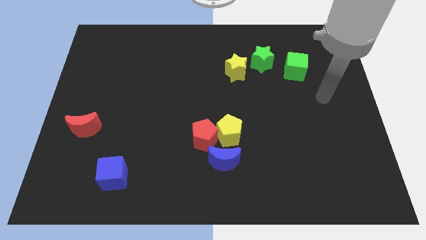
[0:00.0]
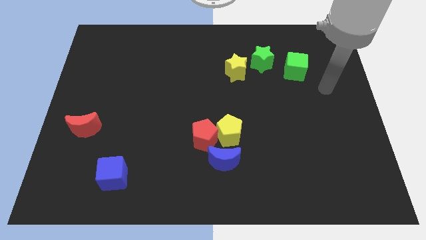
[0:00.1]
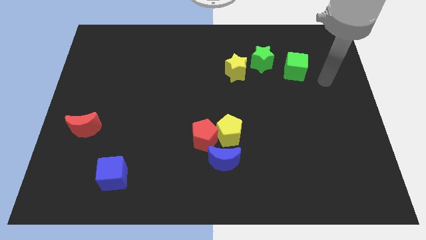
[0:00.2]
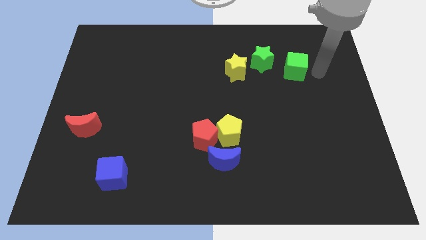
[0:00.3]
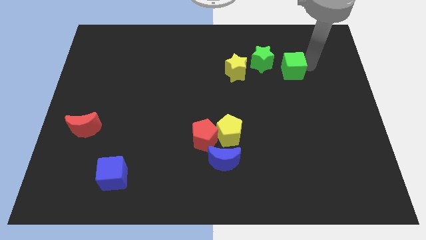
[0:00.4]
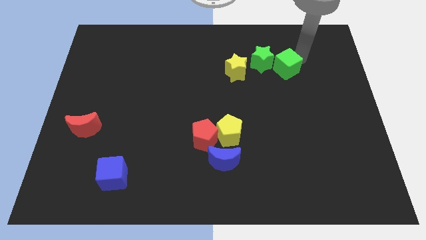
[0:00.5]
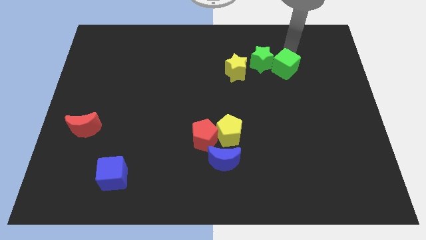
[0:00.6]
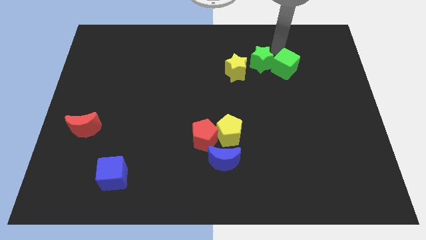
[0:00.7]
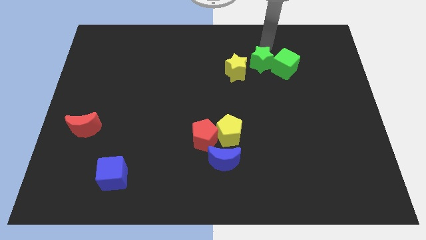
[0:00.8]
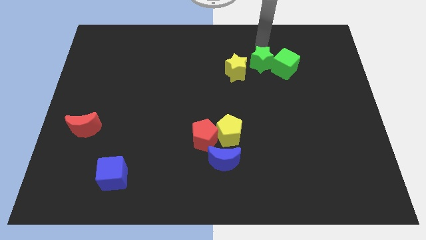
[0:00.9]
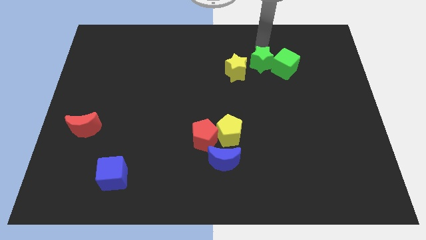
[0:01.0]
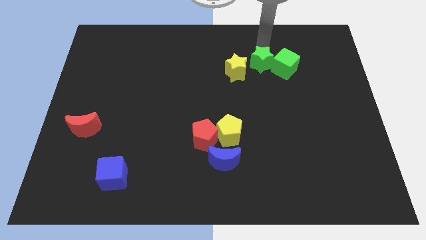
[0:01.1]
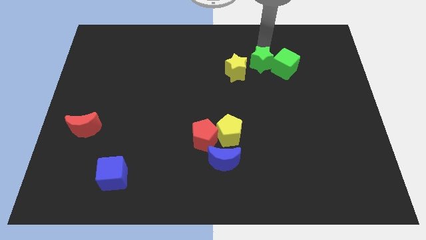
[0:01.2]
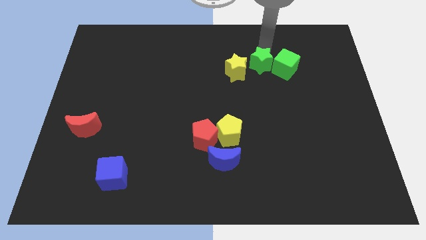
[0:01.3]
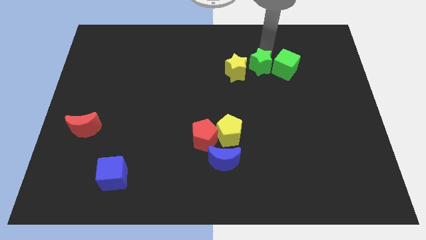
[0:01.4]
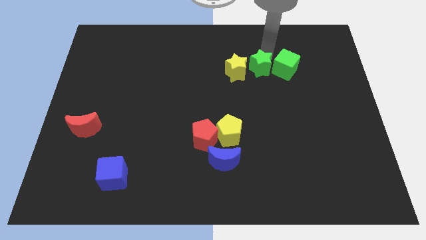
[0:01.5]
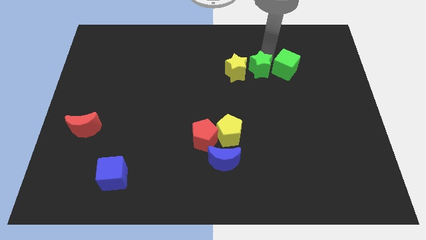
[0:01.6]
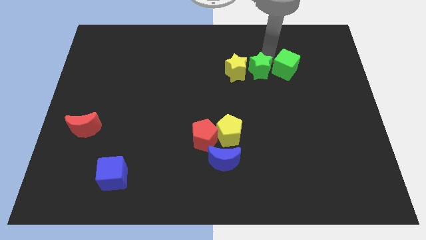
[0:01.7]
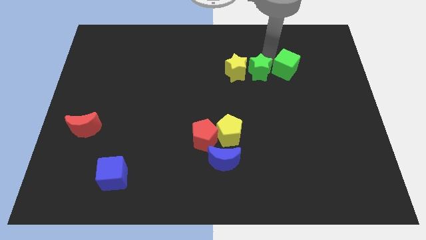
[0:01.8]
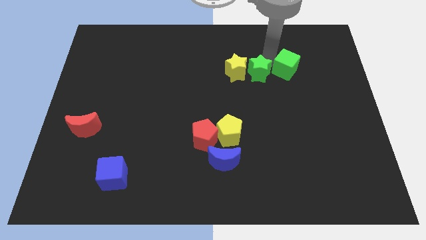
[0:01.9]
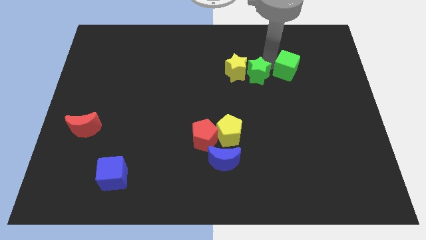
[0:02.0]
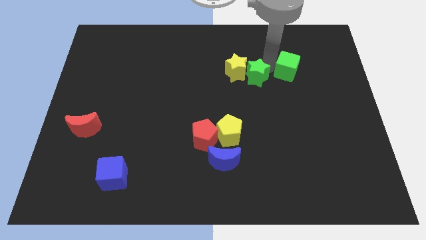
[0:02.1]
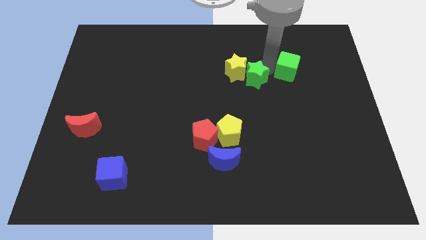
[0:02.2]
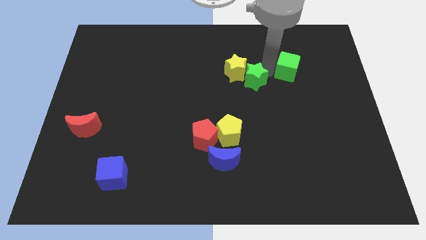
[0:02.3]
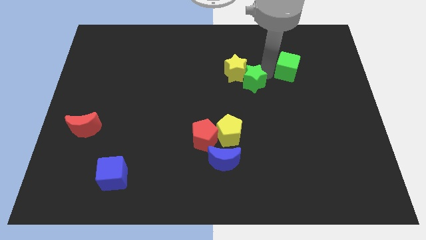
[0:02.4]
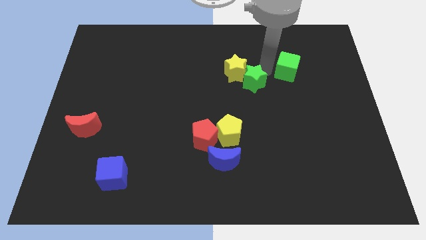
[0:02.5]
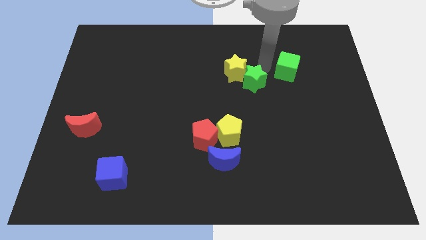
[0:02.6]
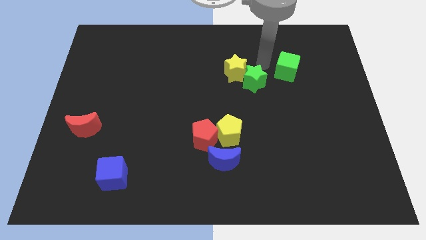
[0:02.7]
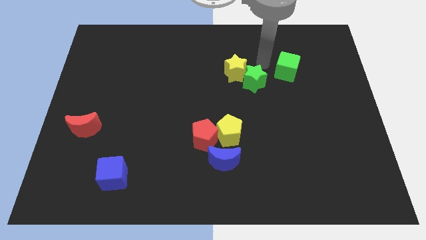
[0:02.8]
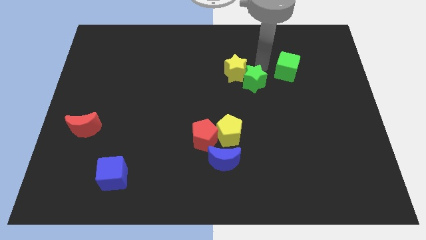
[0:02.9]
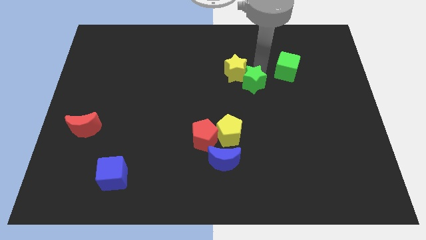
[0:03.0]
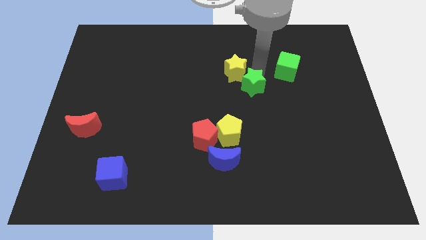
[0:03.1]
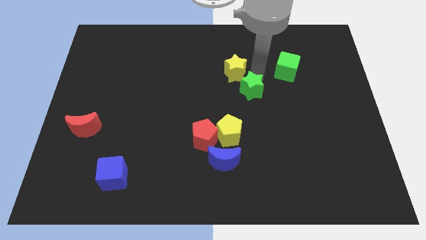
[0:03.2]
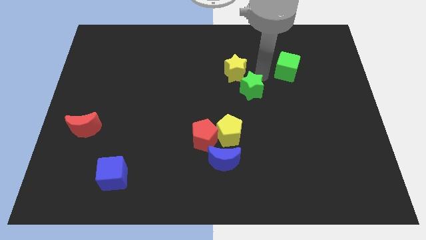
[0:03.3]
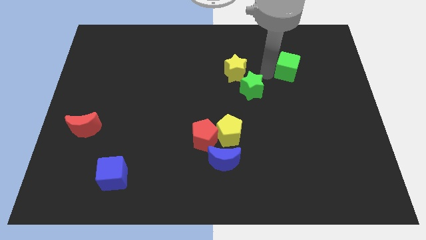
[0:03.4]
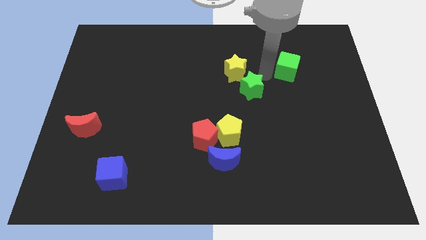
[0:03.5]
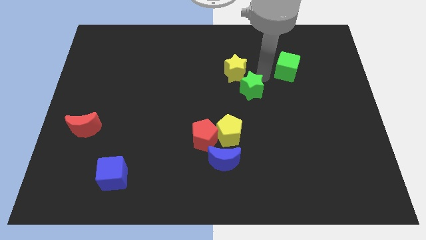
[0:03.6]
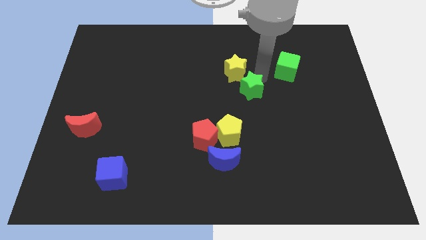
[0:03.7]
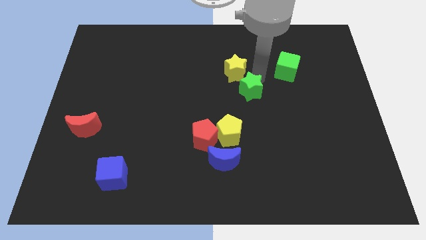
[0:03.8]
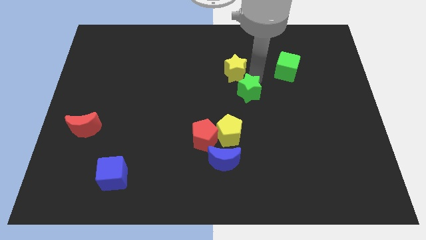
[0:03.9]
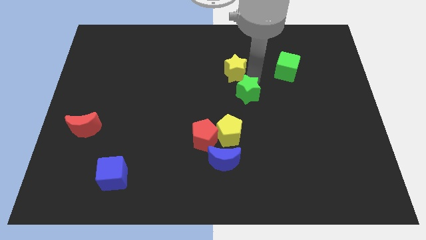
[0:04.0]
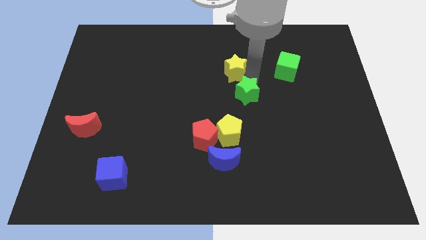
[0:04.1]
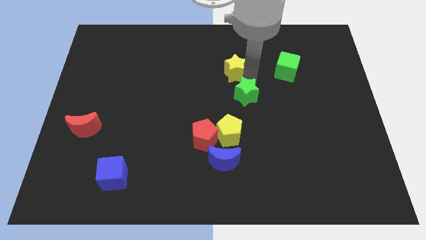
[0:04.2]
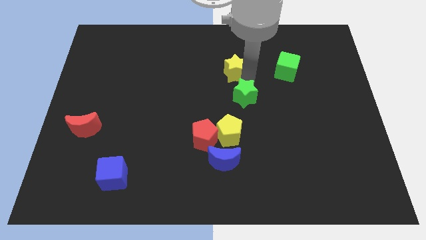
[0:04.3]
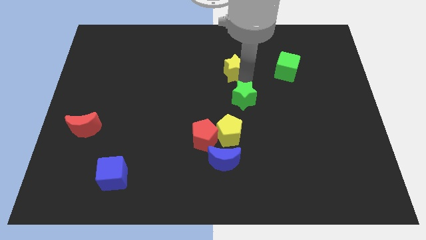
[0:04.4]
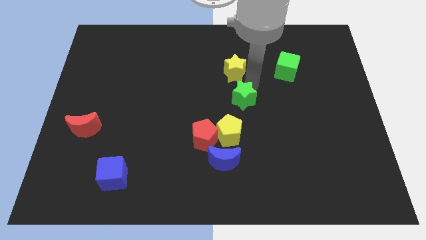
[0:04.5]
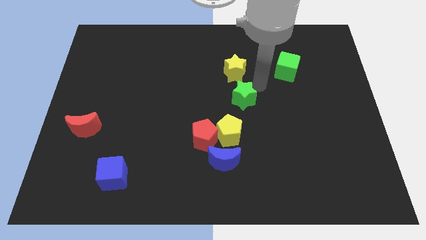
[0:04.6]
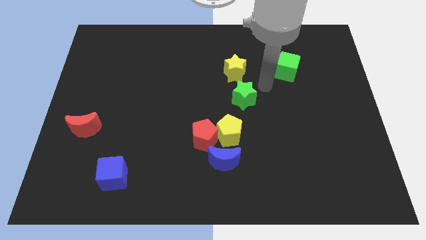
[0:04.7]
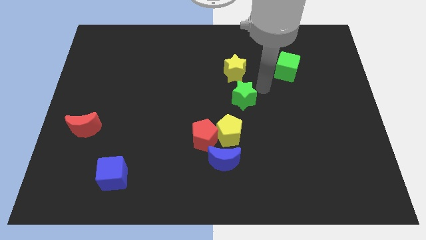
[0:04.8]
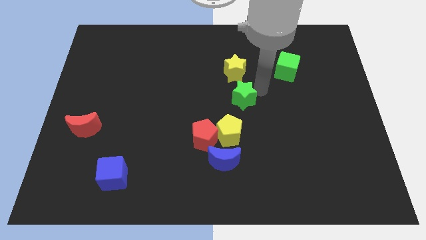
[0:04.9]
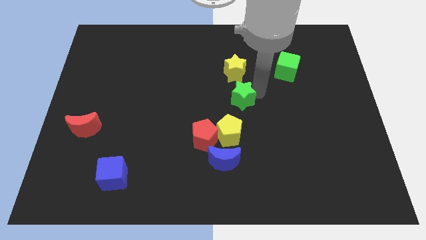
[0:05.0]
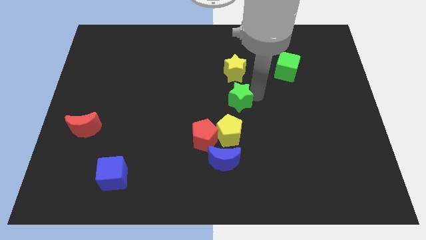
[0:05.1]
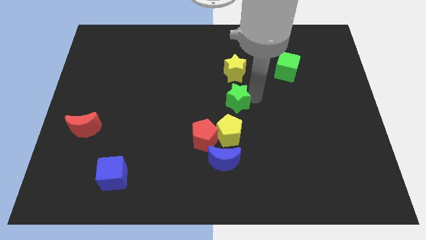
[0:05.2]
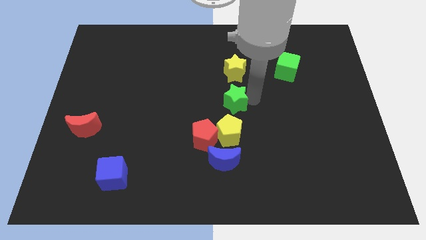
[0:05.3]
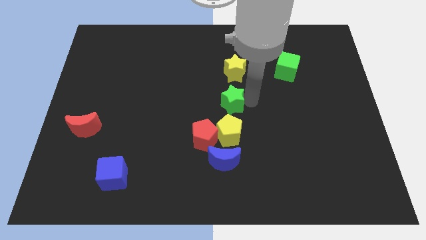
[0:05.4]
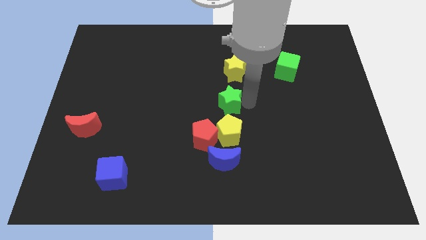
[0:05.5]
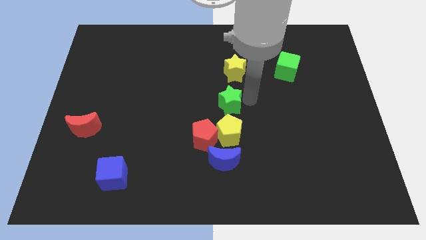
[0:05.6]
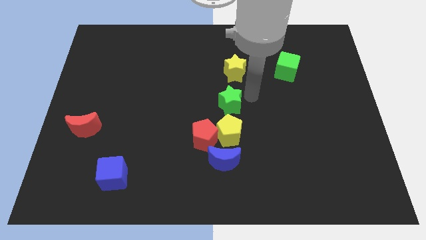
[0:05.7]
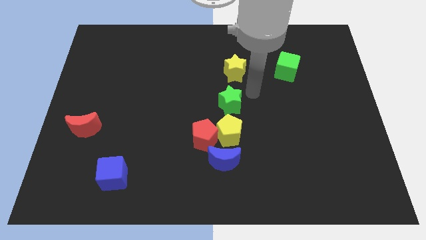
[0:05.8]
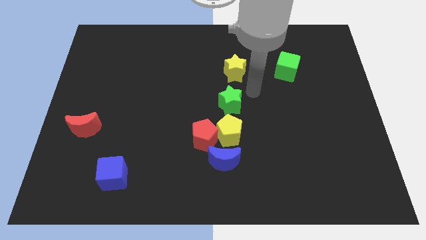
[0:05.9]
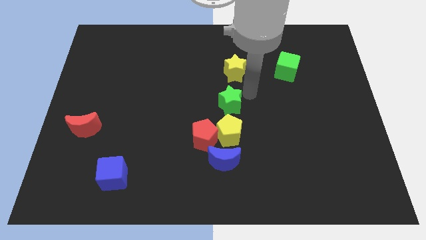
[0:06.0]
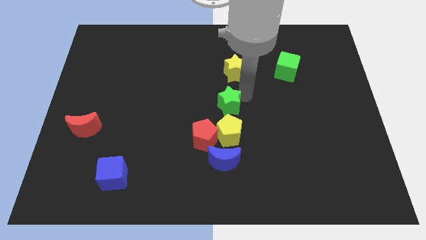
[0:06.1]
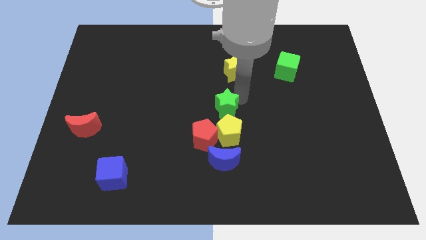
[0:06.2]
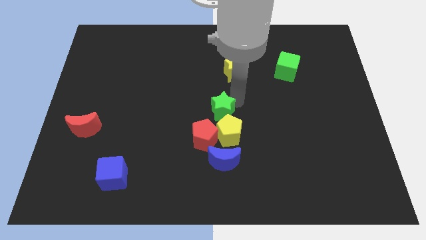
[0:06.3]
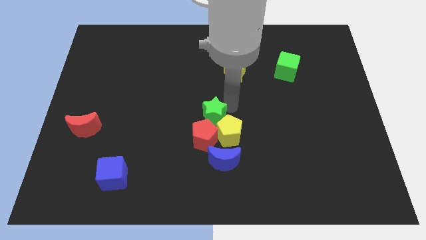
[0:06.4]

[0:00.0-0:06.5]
slide the green star downwards and left

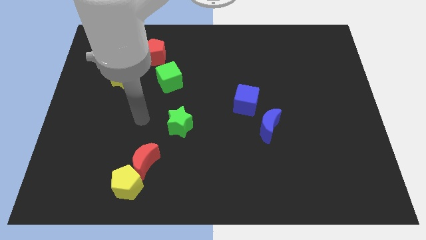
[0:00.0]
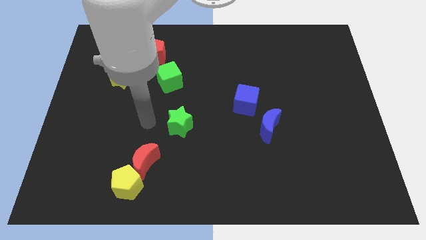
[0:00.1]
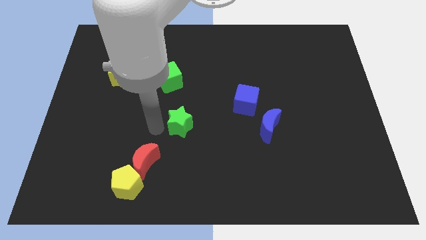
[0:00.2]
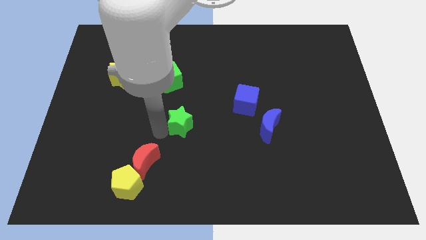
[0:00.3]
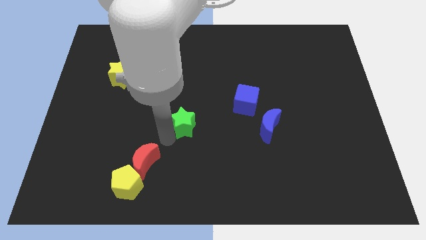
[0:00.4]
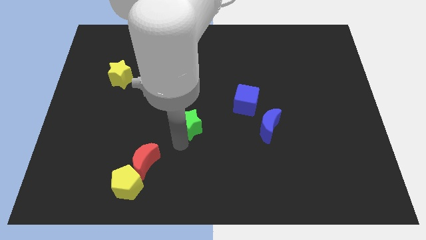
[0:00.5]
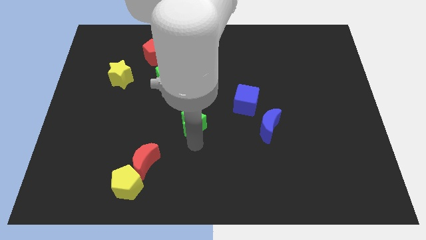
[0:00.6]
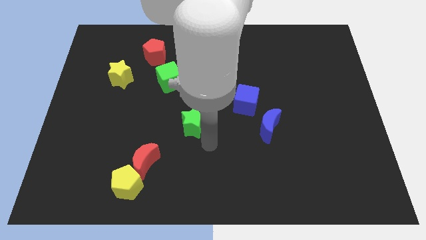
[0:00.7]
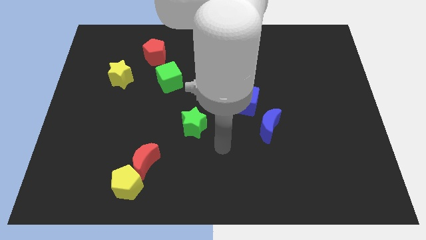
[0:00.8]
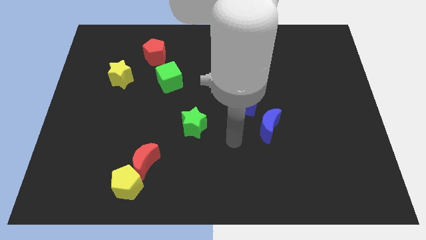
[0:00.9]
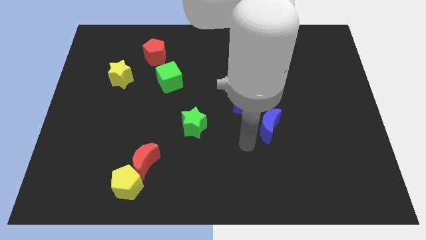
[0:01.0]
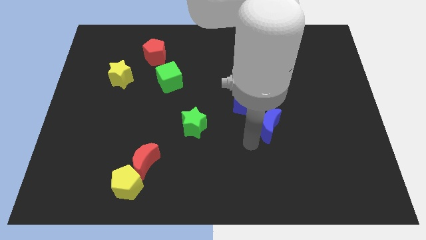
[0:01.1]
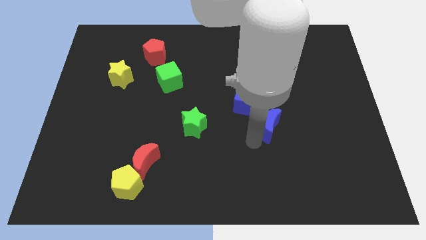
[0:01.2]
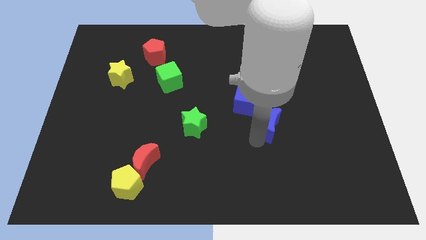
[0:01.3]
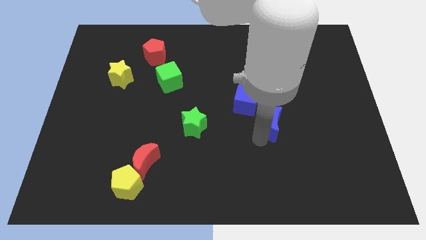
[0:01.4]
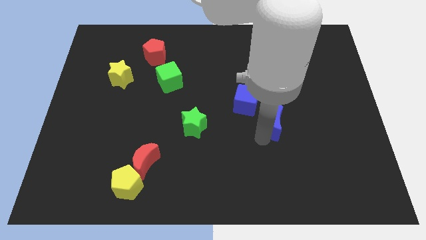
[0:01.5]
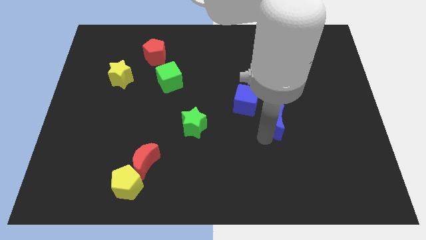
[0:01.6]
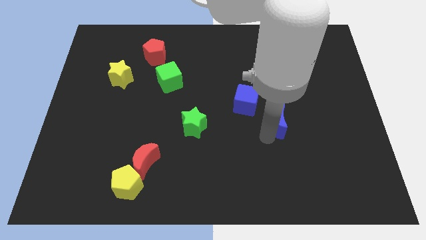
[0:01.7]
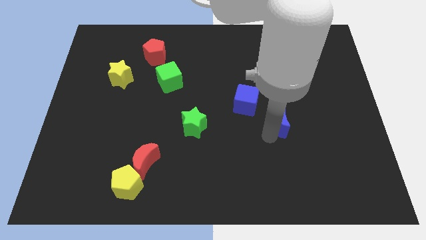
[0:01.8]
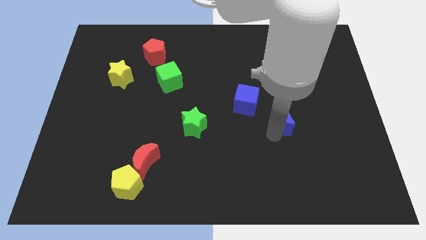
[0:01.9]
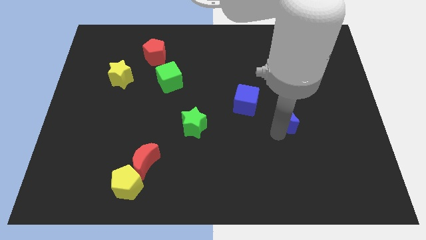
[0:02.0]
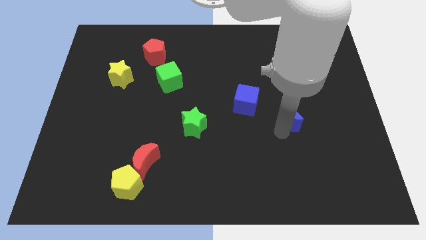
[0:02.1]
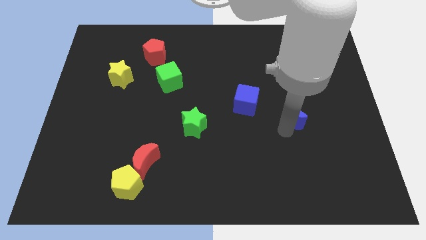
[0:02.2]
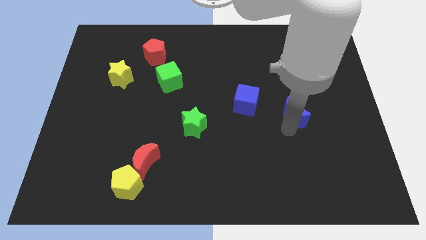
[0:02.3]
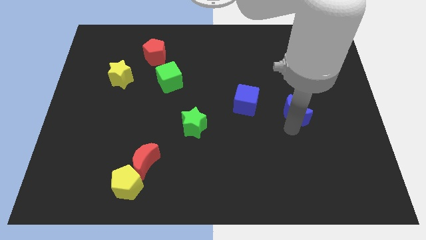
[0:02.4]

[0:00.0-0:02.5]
push the blue moon upwards and then to the right a little
